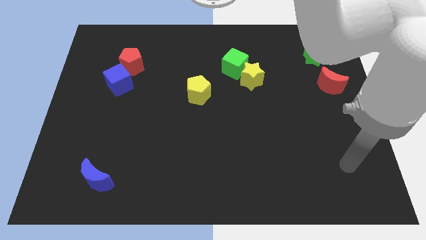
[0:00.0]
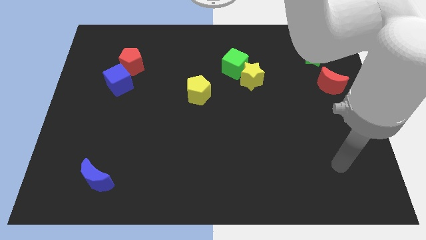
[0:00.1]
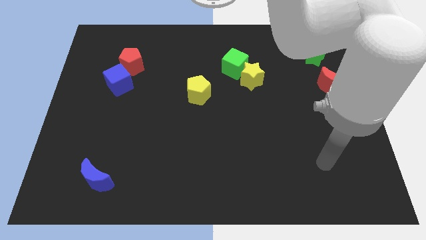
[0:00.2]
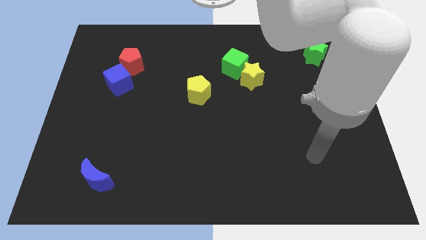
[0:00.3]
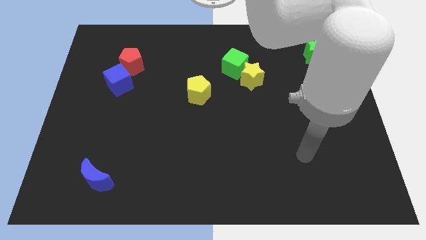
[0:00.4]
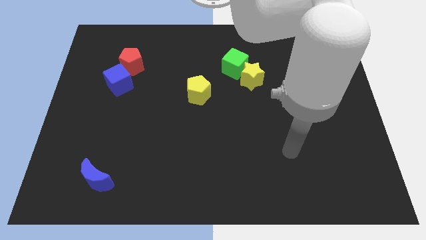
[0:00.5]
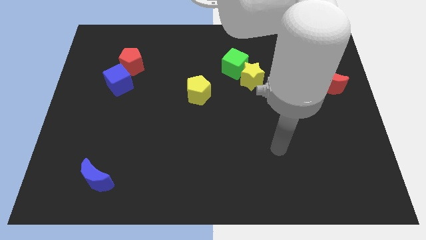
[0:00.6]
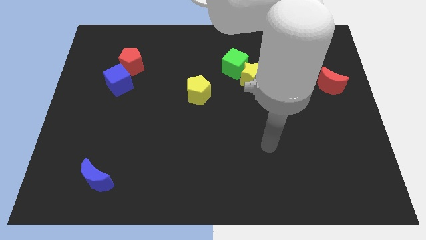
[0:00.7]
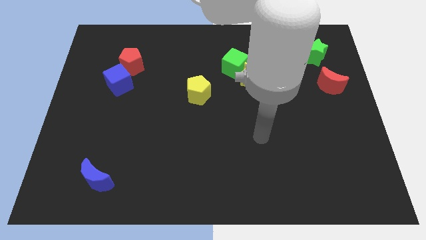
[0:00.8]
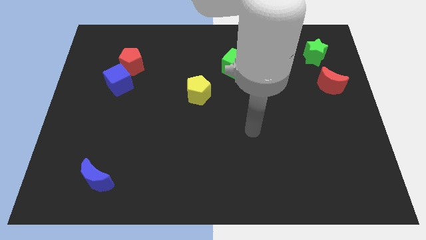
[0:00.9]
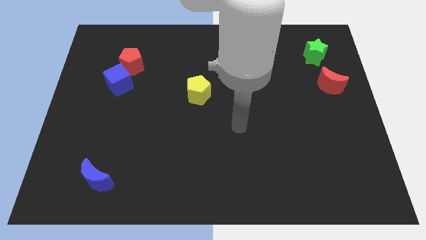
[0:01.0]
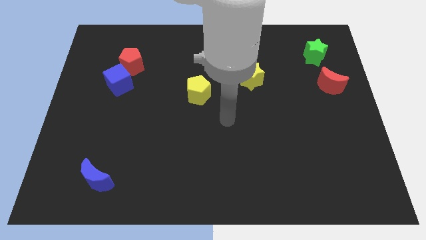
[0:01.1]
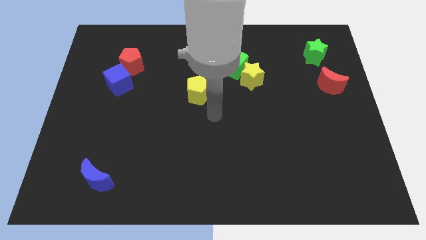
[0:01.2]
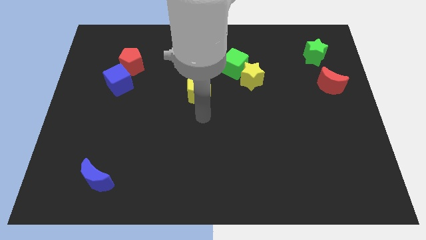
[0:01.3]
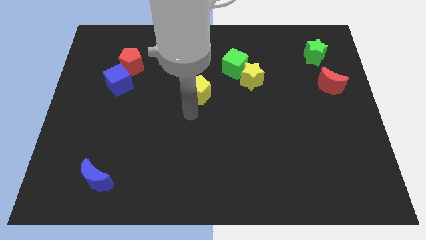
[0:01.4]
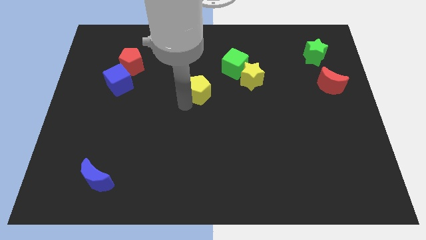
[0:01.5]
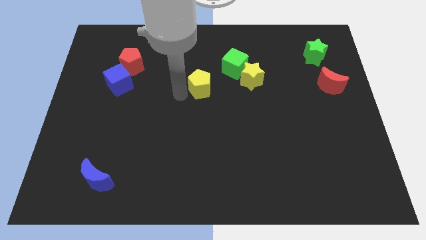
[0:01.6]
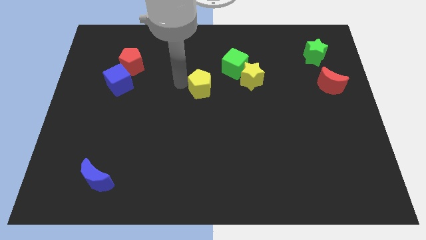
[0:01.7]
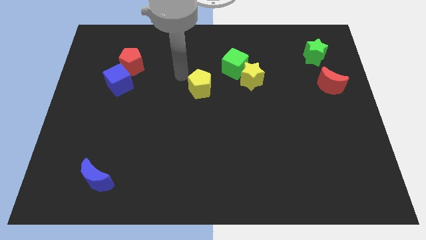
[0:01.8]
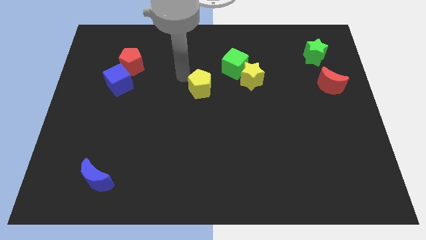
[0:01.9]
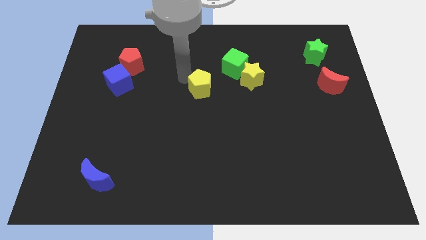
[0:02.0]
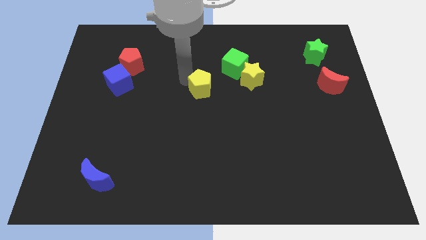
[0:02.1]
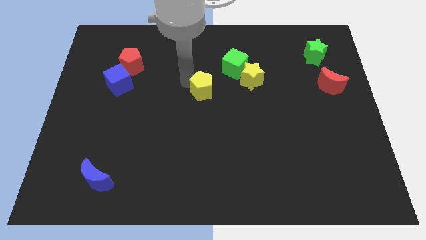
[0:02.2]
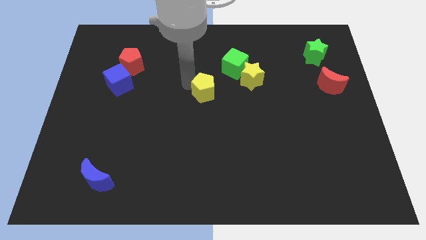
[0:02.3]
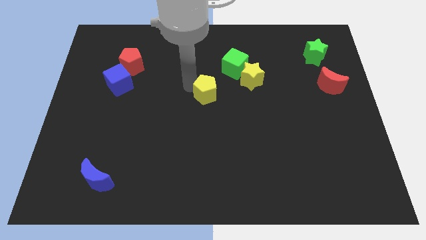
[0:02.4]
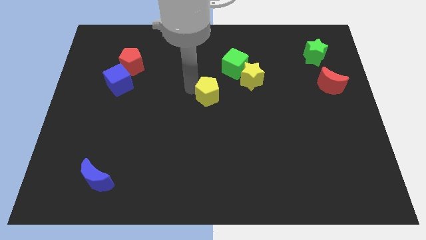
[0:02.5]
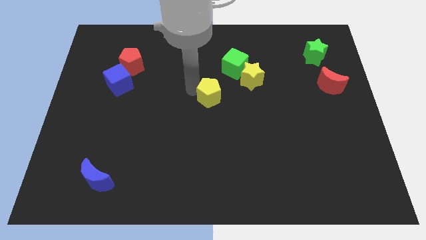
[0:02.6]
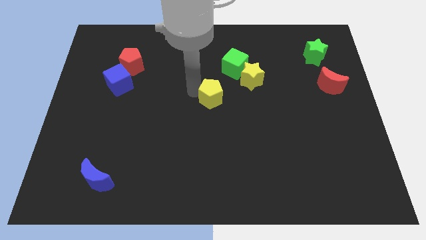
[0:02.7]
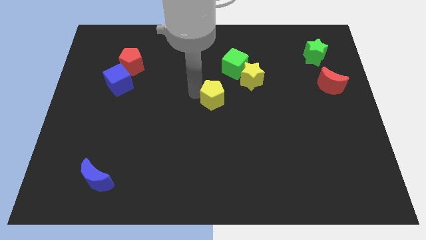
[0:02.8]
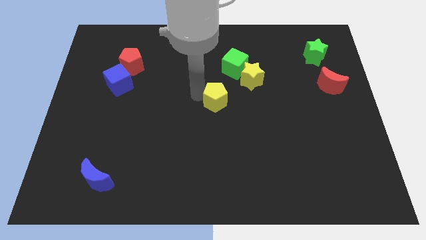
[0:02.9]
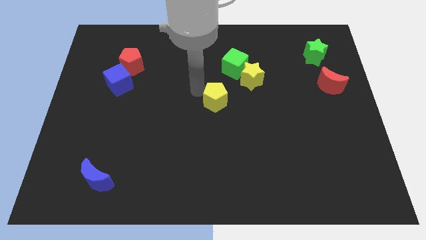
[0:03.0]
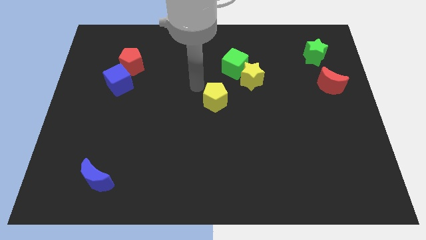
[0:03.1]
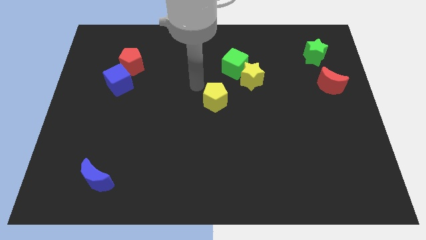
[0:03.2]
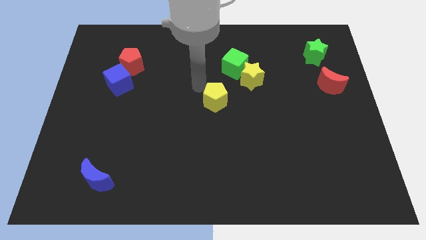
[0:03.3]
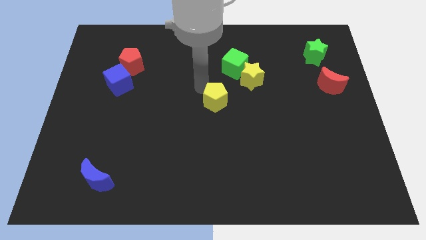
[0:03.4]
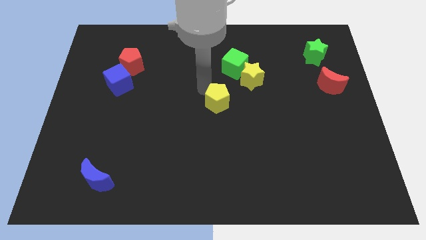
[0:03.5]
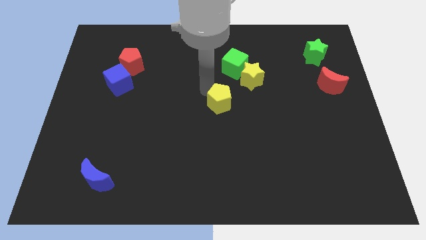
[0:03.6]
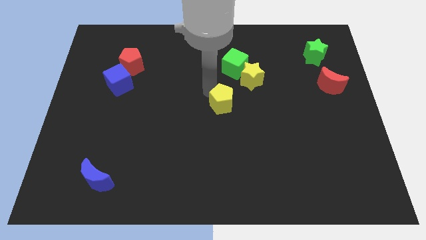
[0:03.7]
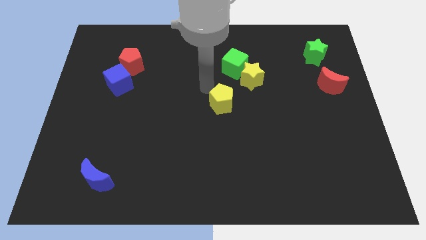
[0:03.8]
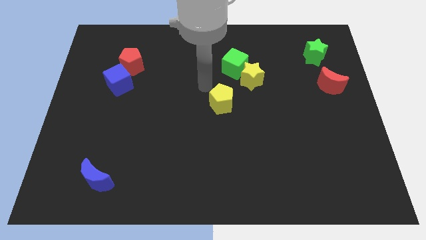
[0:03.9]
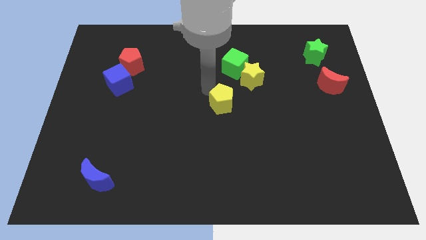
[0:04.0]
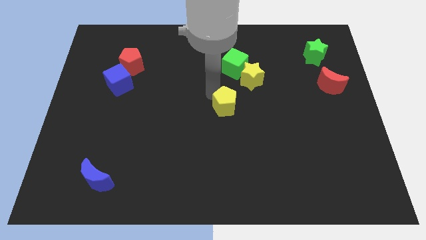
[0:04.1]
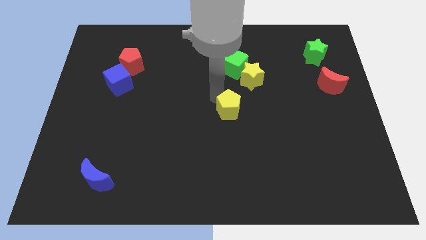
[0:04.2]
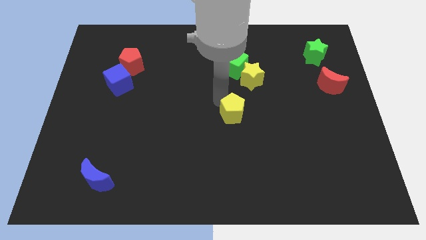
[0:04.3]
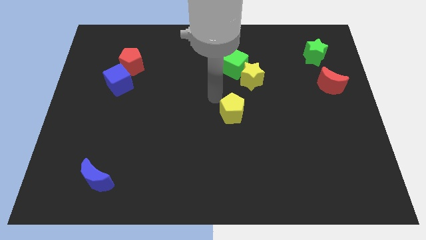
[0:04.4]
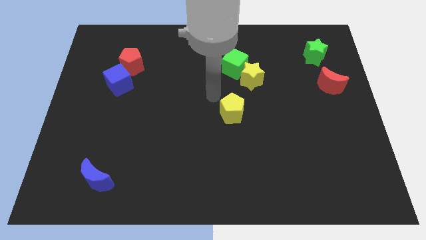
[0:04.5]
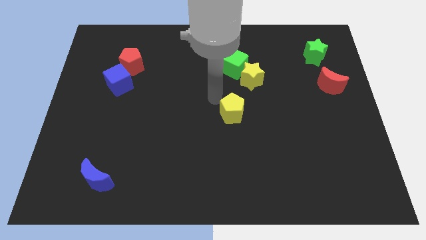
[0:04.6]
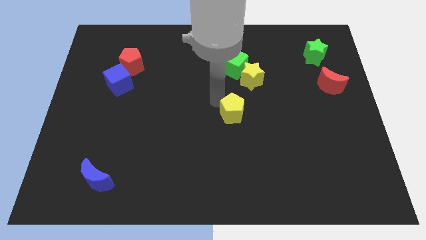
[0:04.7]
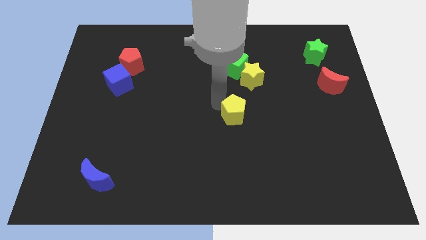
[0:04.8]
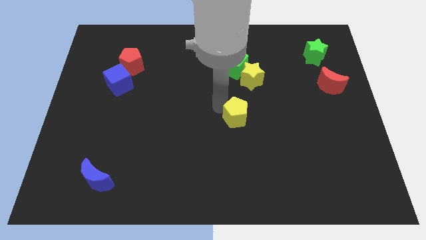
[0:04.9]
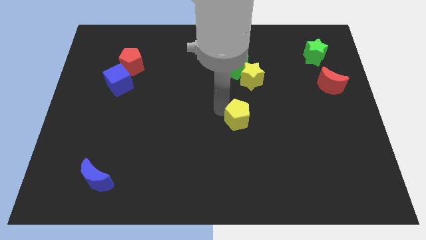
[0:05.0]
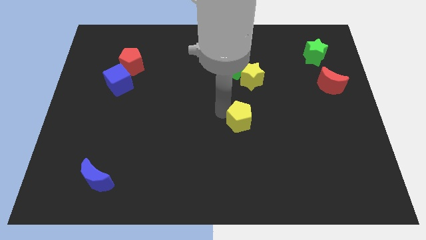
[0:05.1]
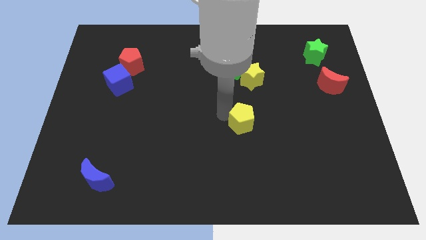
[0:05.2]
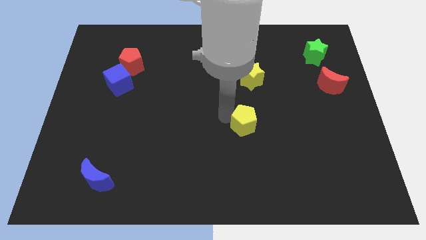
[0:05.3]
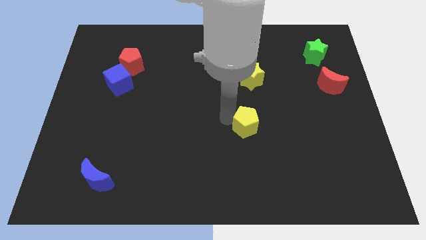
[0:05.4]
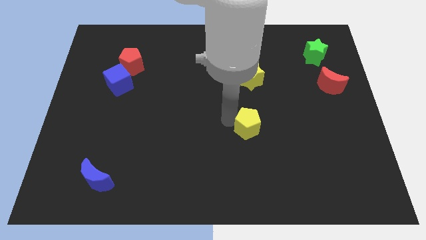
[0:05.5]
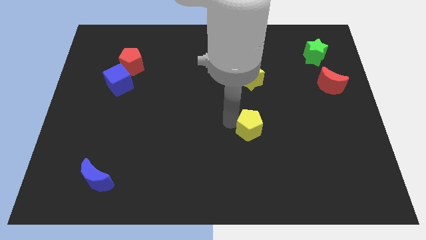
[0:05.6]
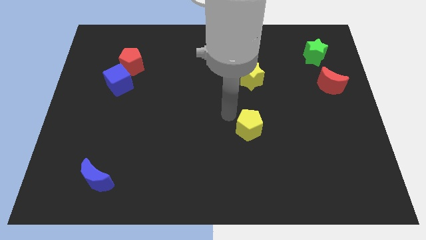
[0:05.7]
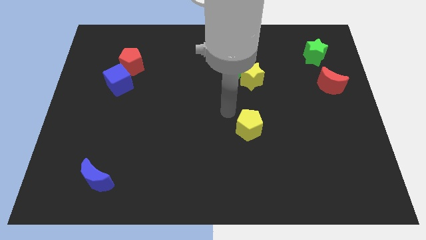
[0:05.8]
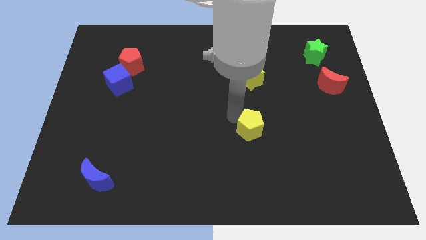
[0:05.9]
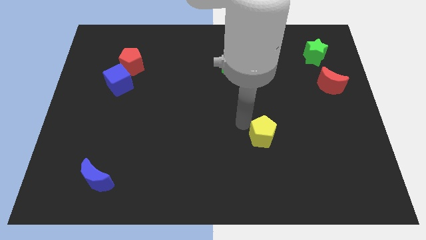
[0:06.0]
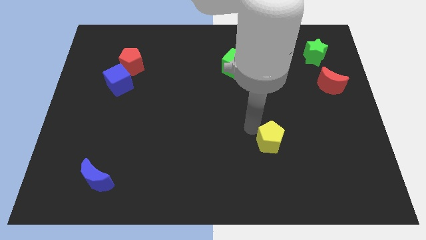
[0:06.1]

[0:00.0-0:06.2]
slide the yellow pentagon downwards and to the right

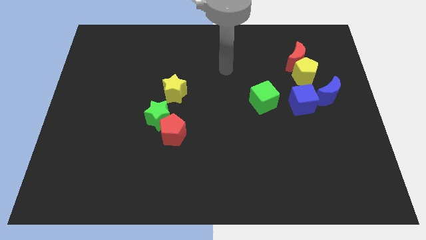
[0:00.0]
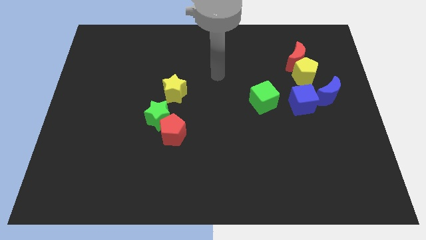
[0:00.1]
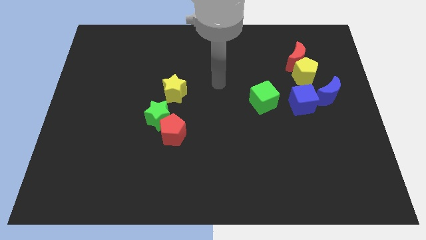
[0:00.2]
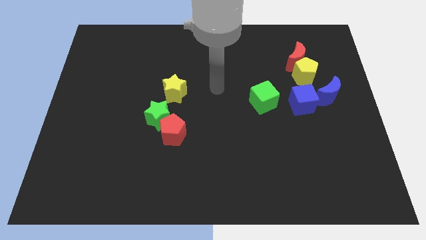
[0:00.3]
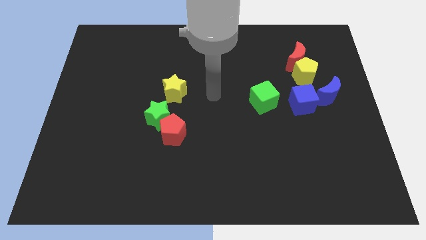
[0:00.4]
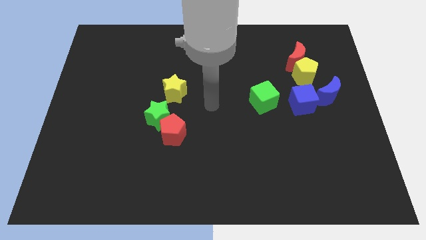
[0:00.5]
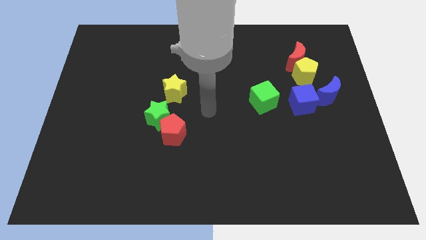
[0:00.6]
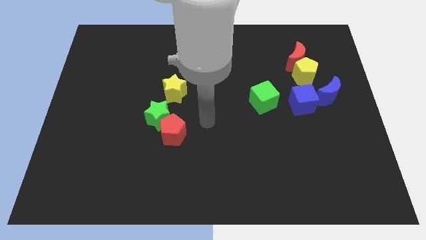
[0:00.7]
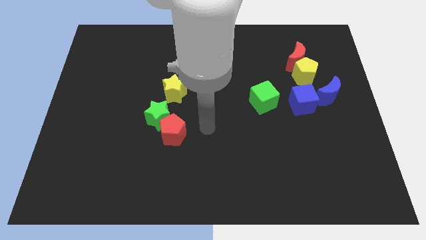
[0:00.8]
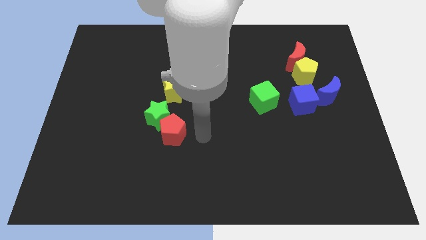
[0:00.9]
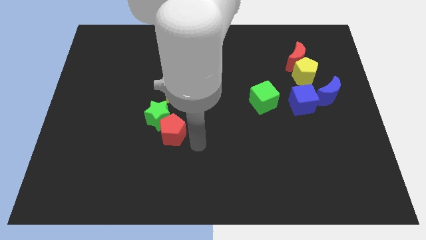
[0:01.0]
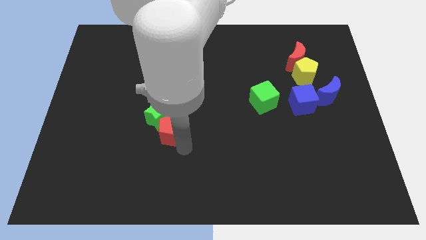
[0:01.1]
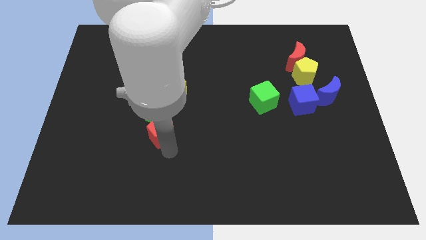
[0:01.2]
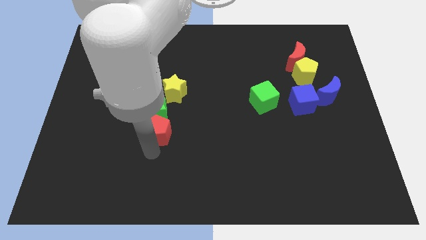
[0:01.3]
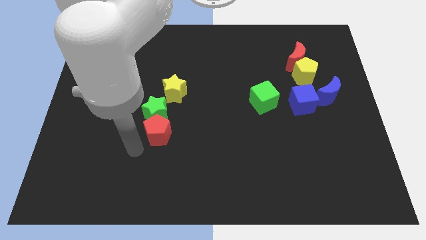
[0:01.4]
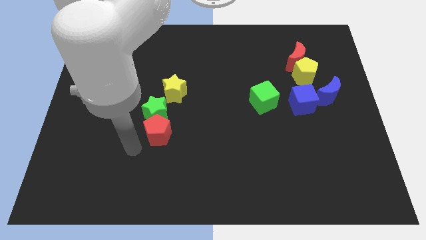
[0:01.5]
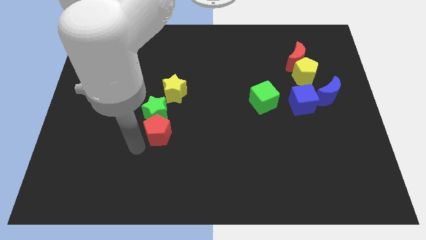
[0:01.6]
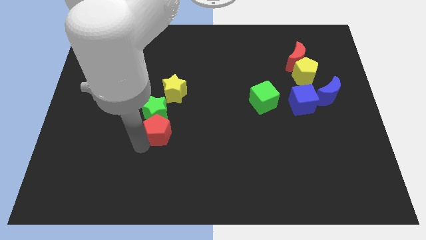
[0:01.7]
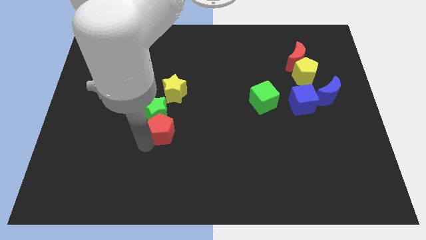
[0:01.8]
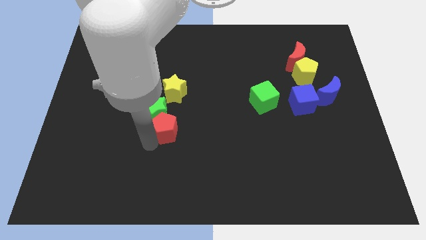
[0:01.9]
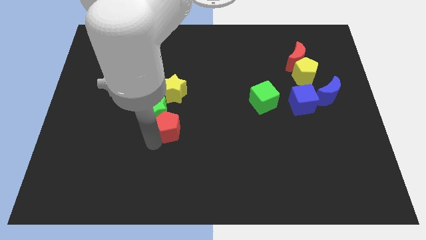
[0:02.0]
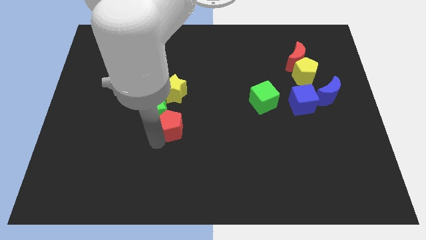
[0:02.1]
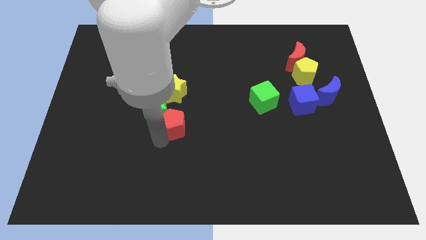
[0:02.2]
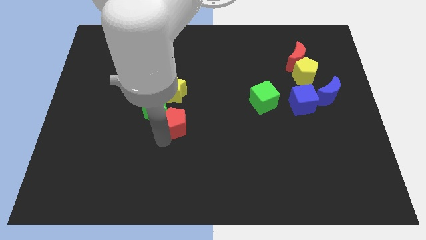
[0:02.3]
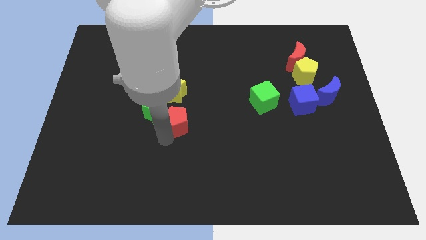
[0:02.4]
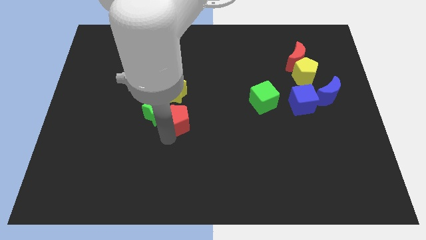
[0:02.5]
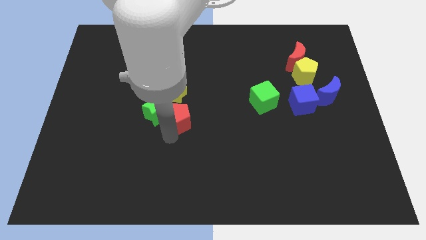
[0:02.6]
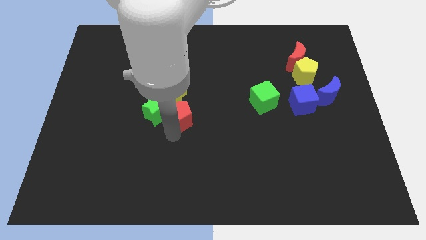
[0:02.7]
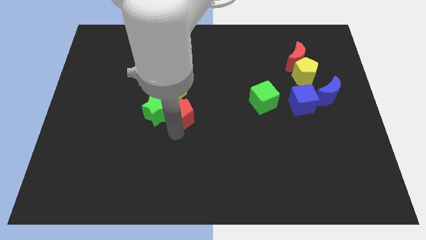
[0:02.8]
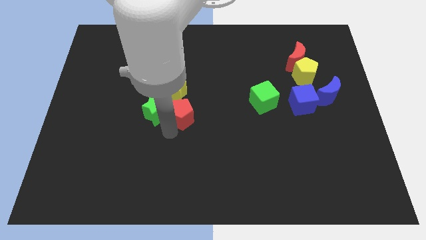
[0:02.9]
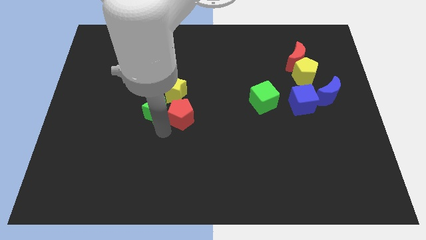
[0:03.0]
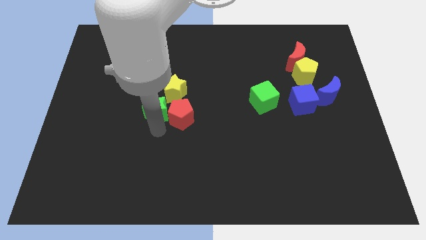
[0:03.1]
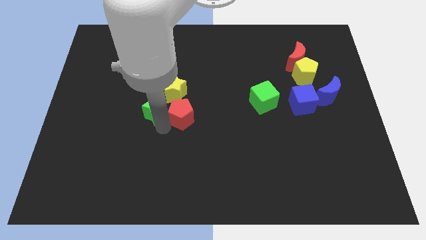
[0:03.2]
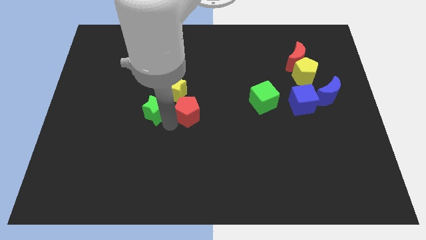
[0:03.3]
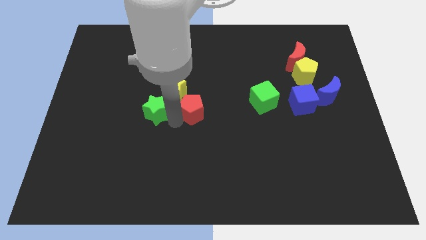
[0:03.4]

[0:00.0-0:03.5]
slightly slide the red pentagon diagonally up and to the right
